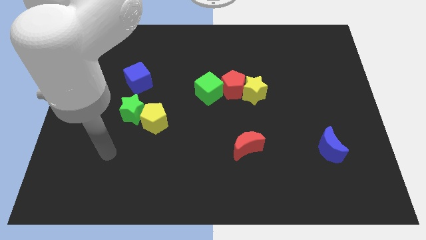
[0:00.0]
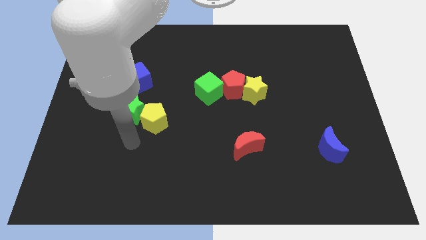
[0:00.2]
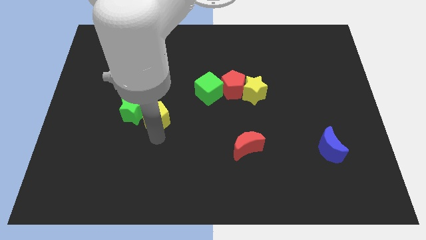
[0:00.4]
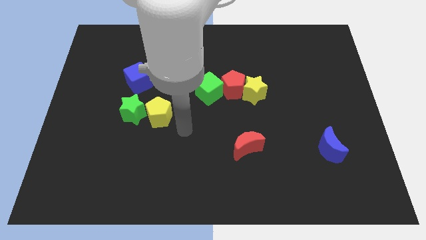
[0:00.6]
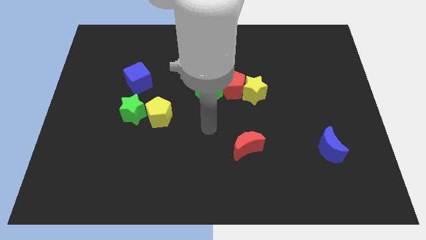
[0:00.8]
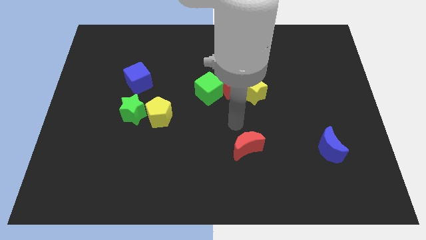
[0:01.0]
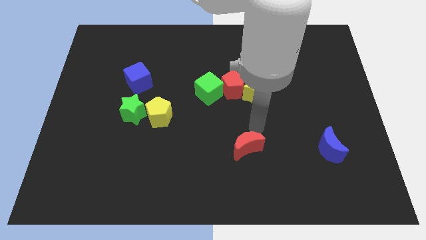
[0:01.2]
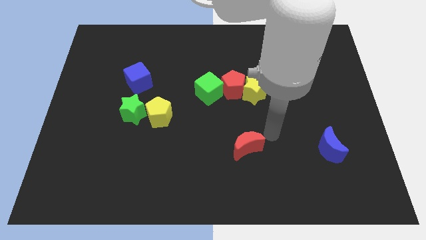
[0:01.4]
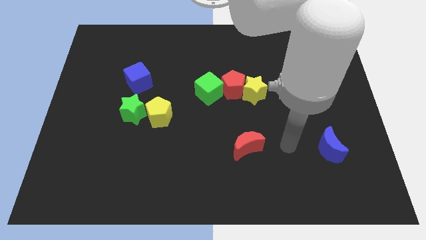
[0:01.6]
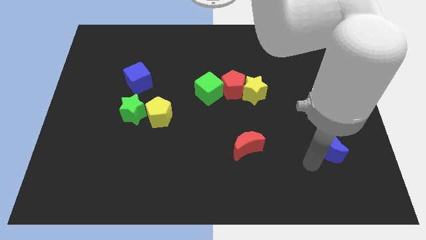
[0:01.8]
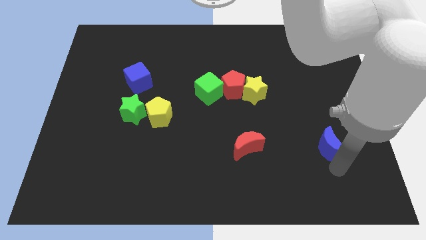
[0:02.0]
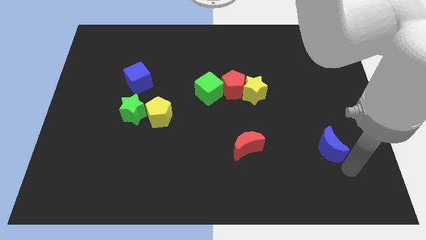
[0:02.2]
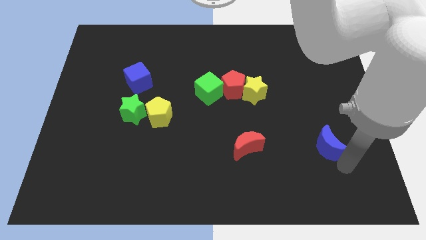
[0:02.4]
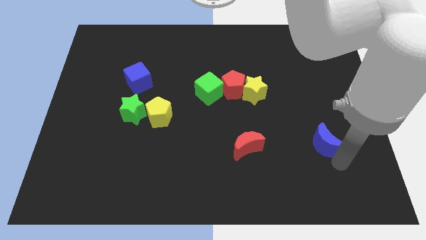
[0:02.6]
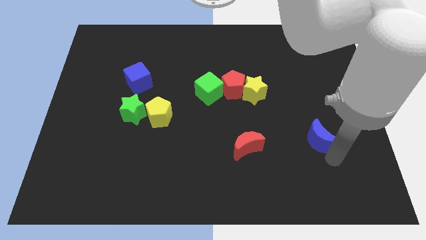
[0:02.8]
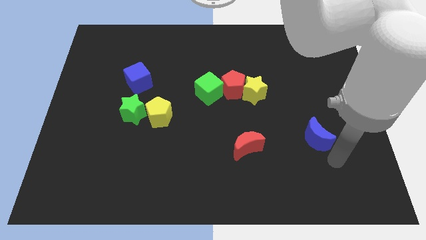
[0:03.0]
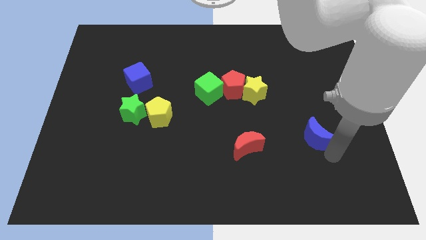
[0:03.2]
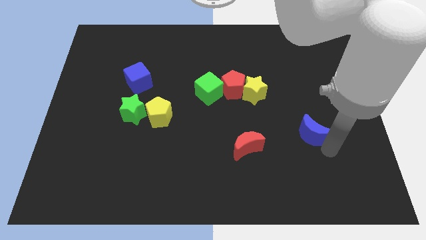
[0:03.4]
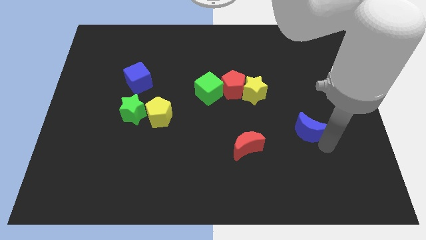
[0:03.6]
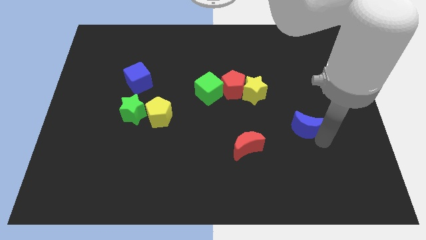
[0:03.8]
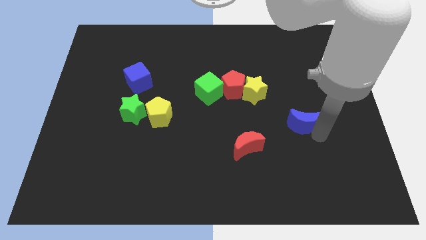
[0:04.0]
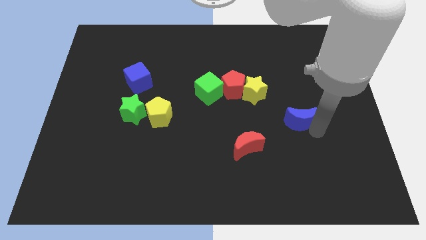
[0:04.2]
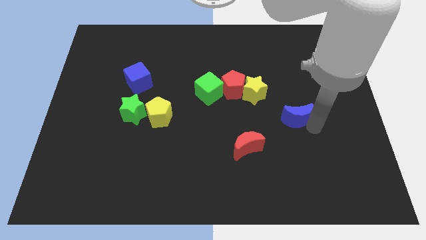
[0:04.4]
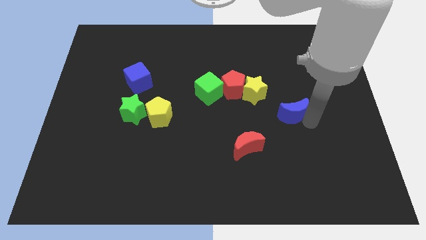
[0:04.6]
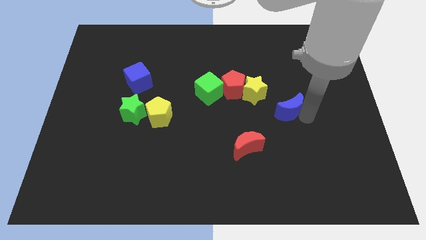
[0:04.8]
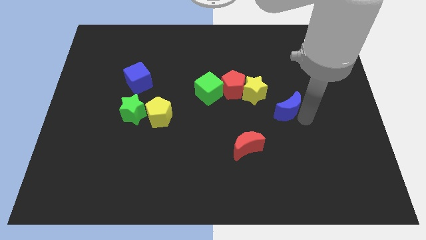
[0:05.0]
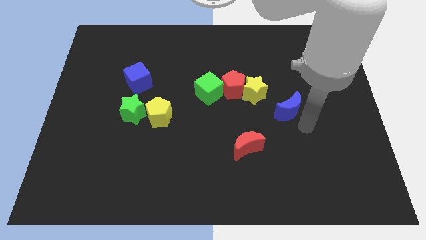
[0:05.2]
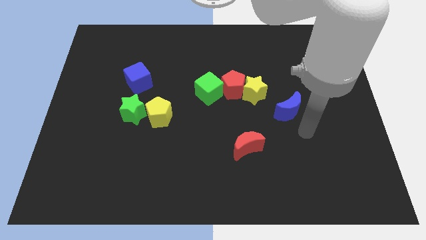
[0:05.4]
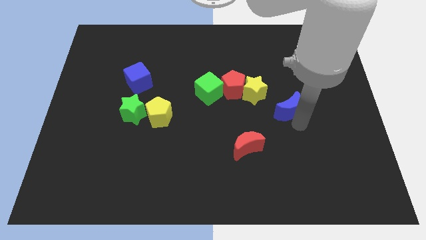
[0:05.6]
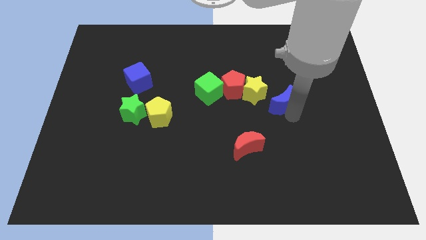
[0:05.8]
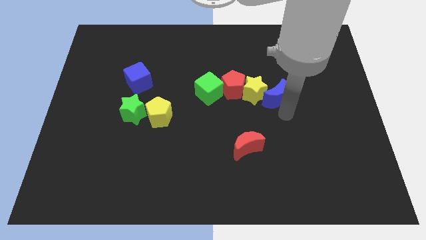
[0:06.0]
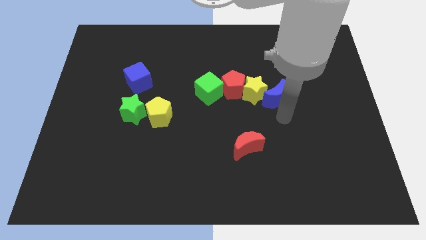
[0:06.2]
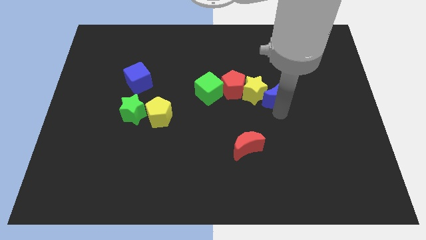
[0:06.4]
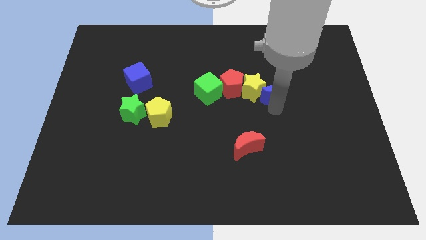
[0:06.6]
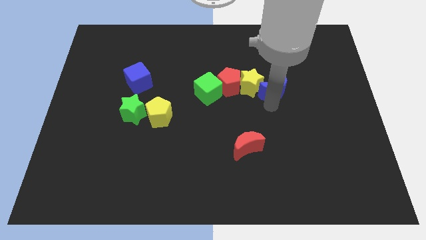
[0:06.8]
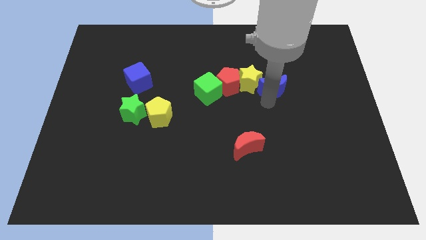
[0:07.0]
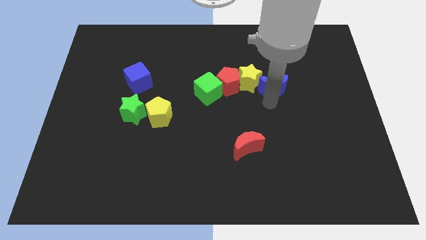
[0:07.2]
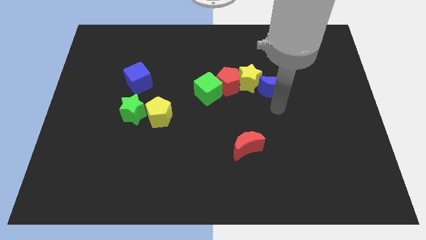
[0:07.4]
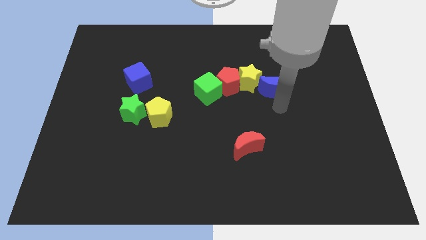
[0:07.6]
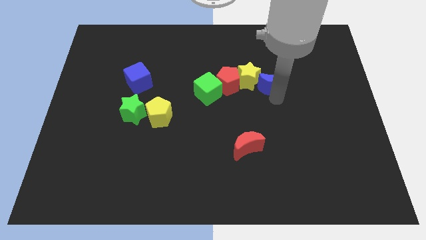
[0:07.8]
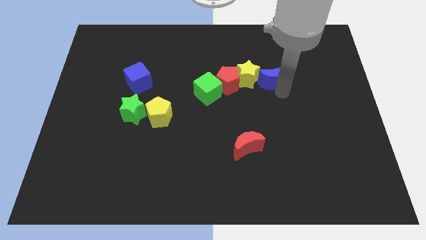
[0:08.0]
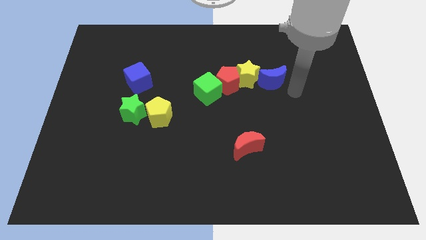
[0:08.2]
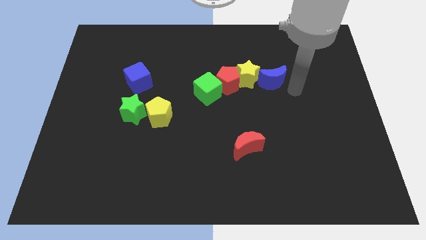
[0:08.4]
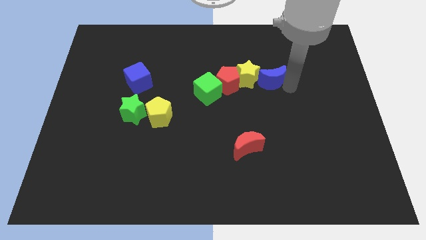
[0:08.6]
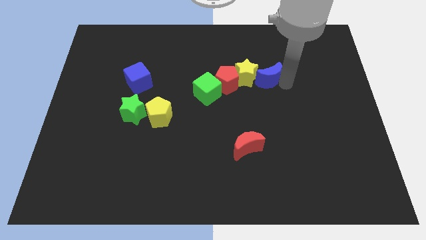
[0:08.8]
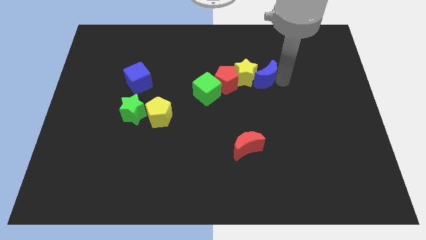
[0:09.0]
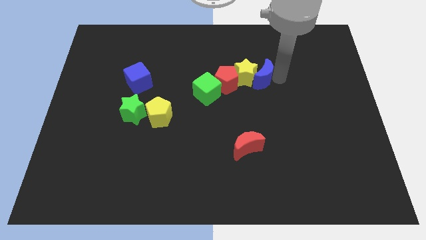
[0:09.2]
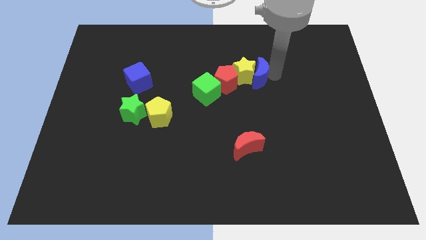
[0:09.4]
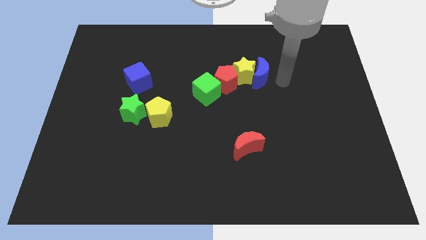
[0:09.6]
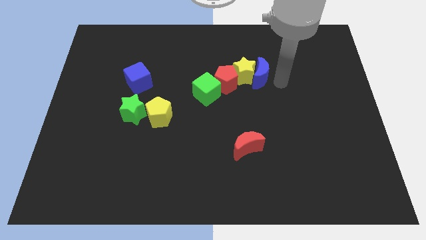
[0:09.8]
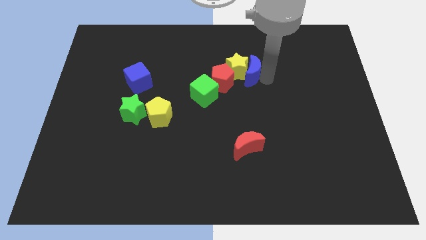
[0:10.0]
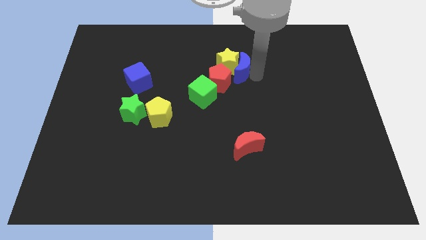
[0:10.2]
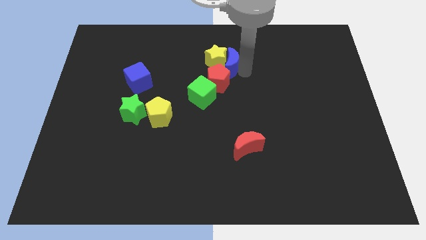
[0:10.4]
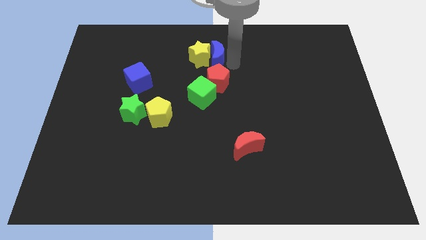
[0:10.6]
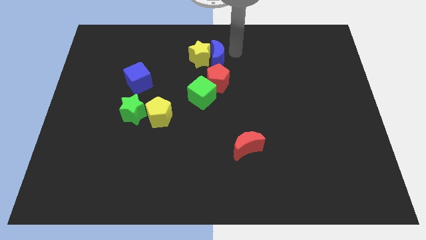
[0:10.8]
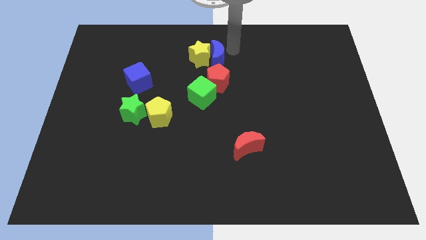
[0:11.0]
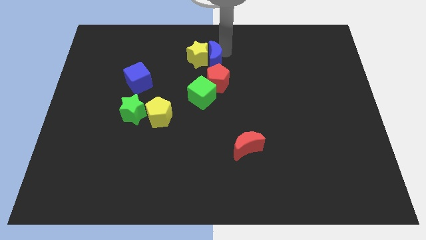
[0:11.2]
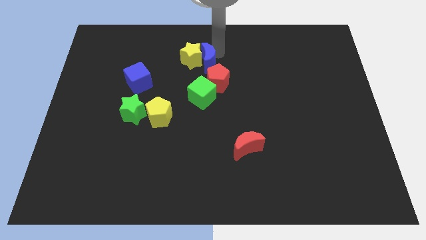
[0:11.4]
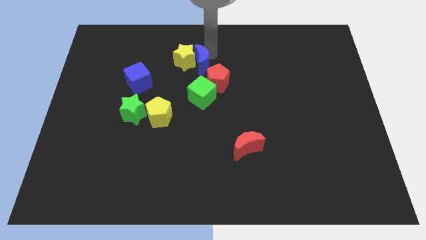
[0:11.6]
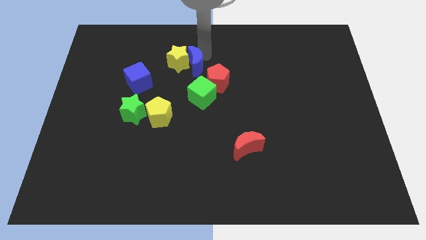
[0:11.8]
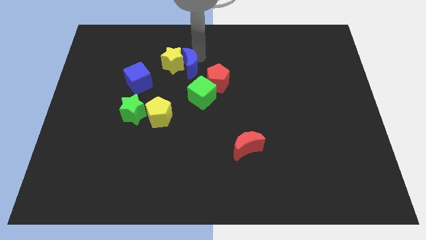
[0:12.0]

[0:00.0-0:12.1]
put the blue moon to the top left of the green cube

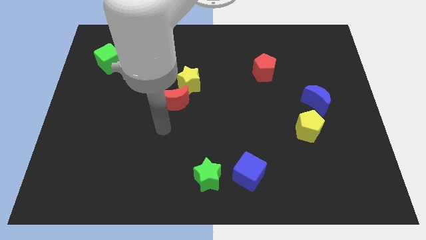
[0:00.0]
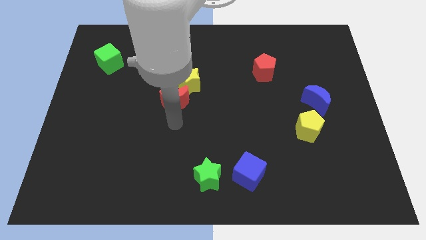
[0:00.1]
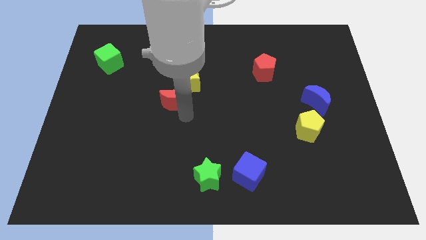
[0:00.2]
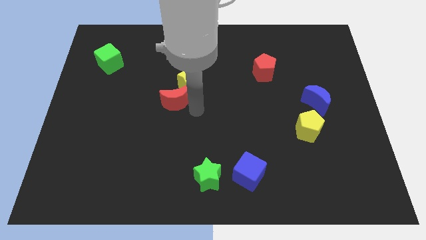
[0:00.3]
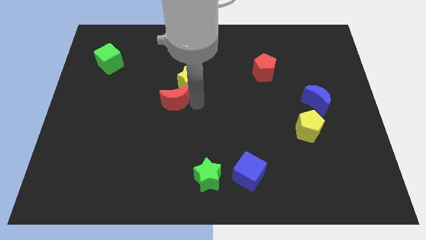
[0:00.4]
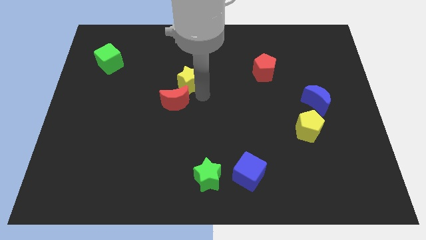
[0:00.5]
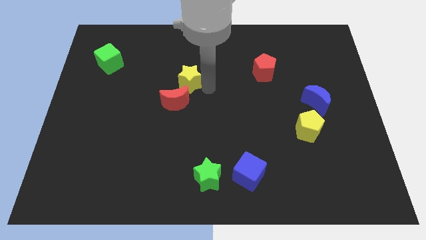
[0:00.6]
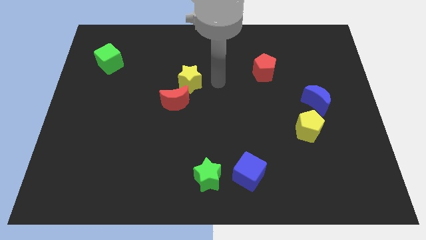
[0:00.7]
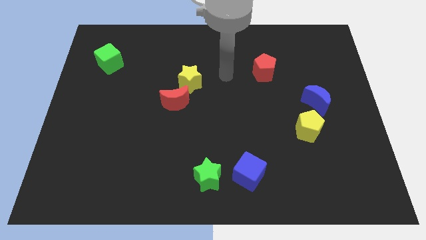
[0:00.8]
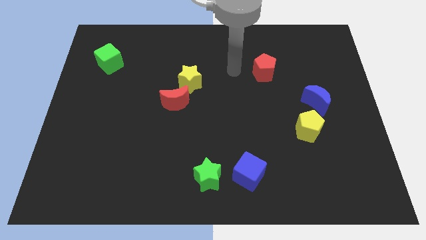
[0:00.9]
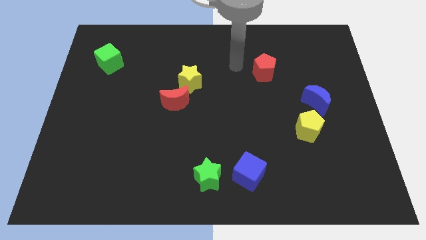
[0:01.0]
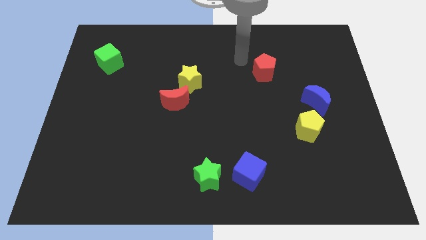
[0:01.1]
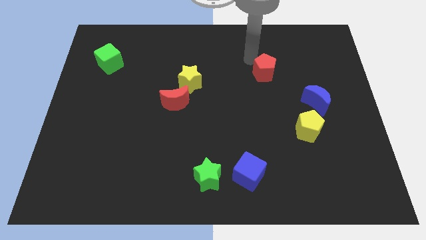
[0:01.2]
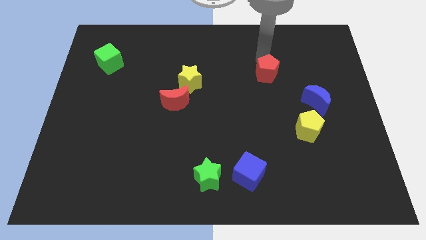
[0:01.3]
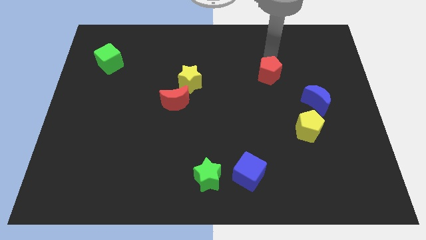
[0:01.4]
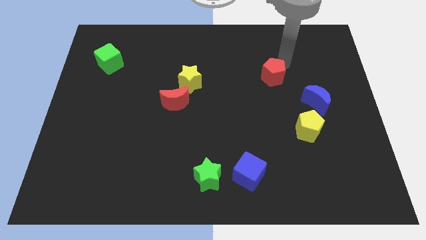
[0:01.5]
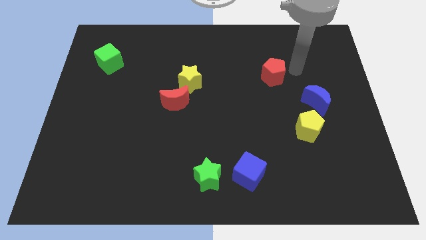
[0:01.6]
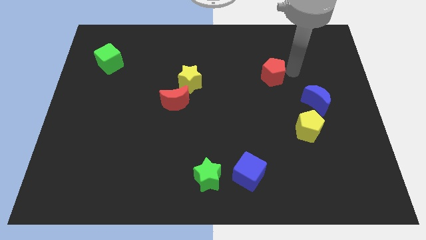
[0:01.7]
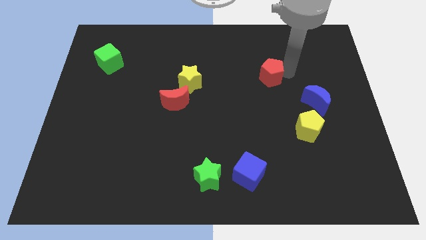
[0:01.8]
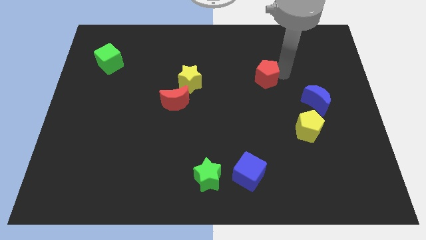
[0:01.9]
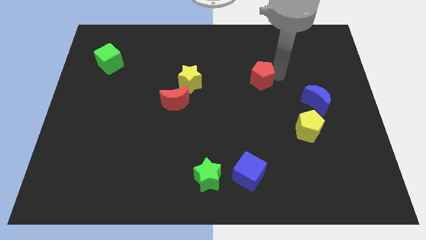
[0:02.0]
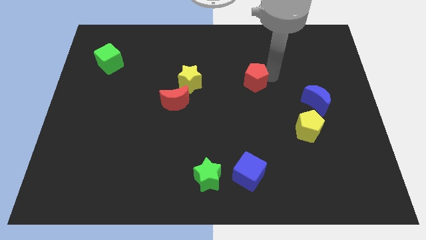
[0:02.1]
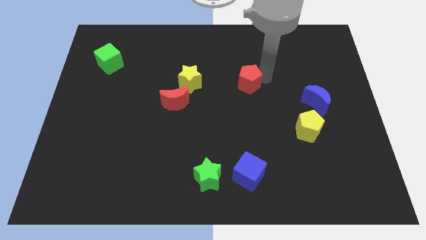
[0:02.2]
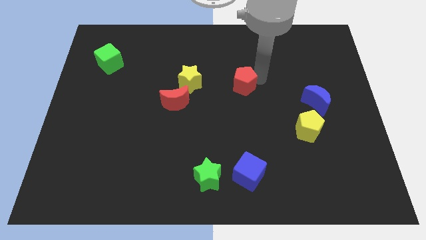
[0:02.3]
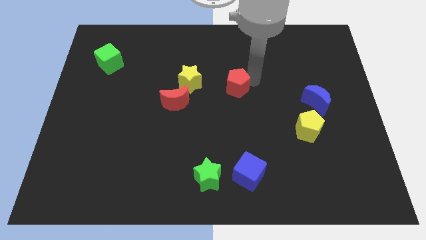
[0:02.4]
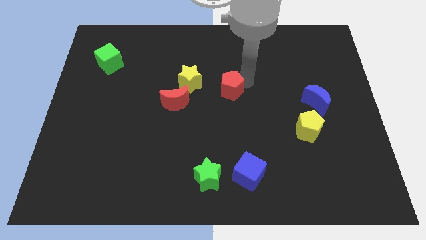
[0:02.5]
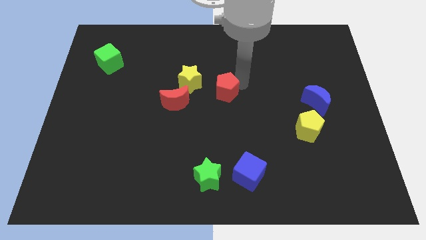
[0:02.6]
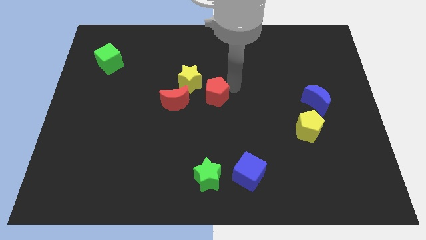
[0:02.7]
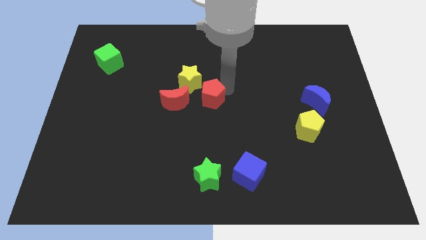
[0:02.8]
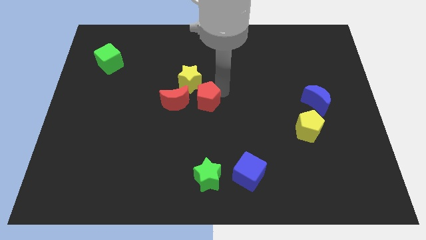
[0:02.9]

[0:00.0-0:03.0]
push the red pentagon to the bottom of the yellow star
